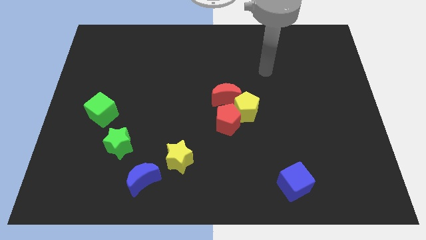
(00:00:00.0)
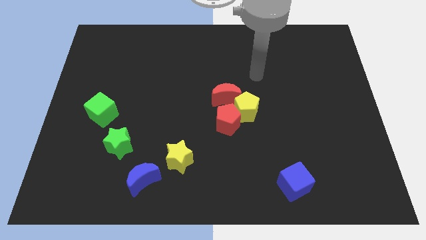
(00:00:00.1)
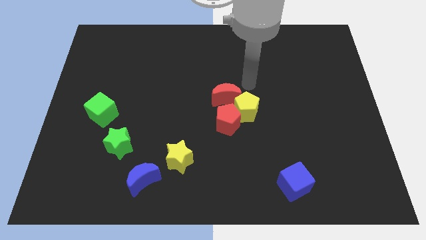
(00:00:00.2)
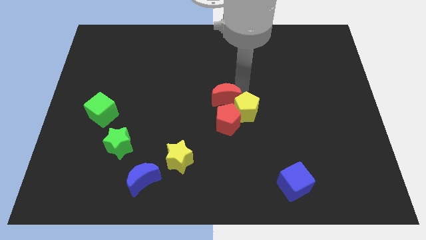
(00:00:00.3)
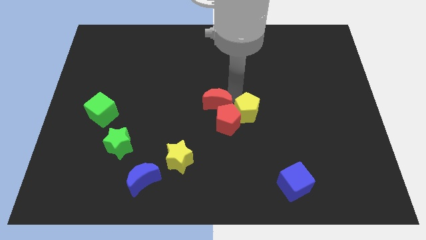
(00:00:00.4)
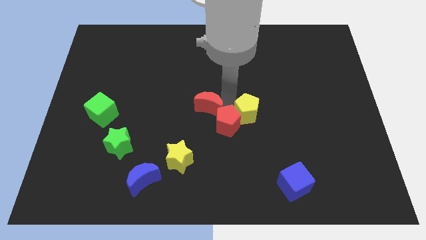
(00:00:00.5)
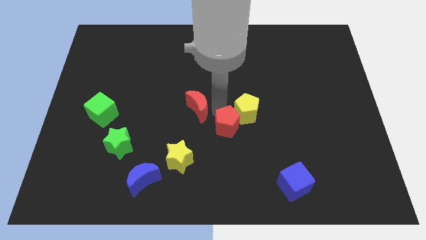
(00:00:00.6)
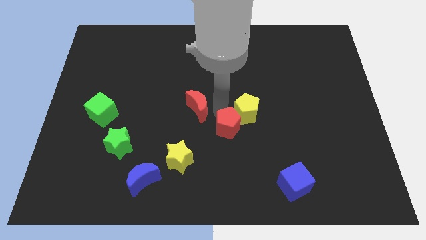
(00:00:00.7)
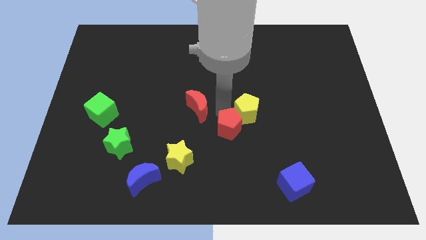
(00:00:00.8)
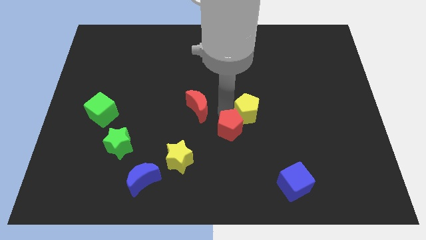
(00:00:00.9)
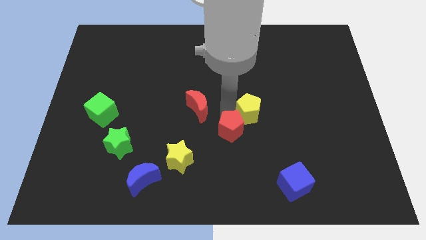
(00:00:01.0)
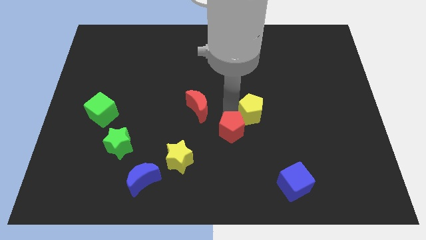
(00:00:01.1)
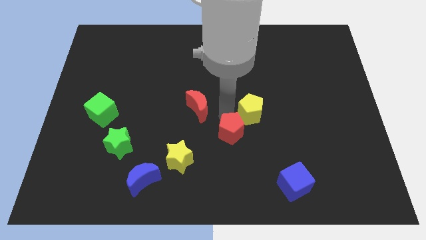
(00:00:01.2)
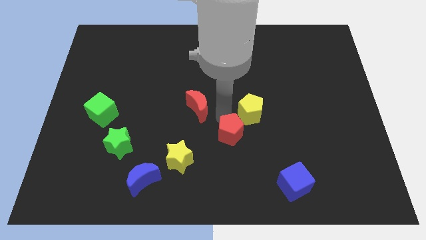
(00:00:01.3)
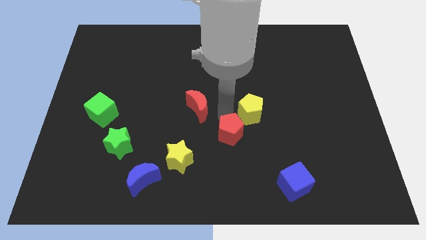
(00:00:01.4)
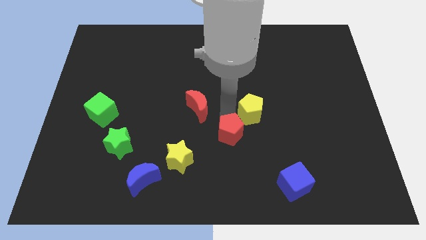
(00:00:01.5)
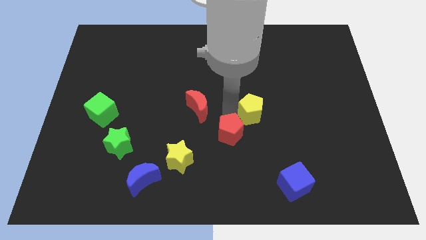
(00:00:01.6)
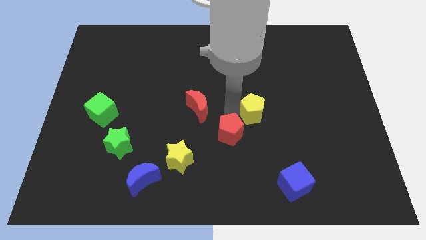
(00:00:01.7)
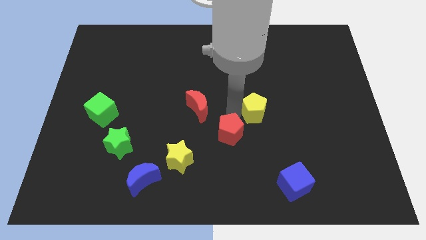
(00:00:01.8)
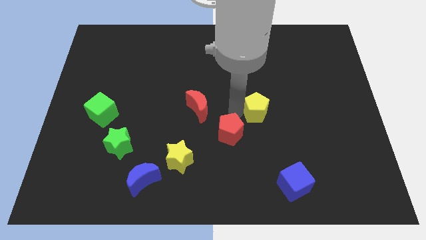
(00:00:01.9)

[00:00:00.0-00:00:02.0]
pull the yellow pentagon apart from the red pentagon and red moon

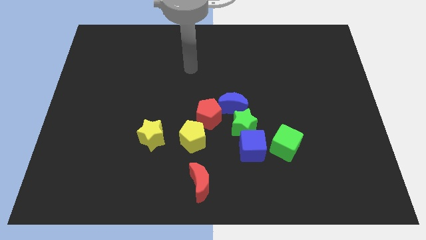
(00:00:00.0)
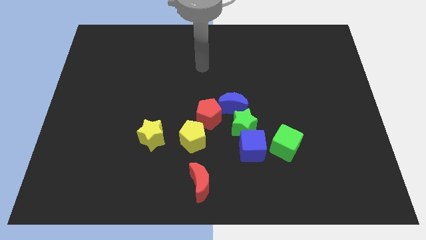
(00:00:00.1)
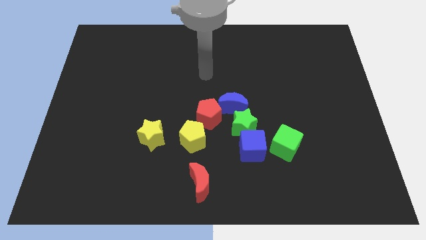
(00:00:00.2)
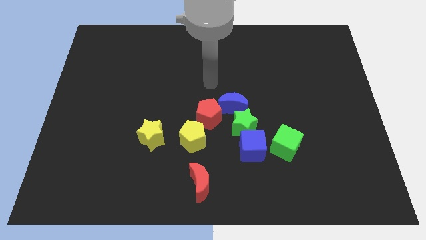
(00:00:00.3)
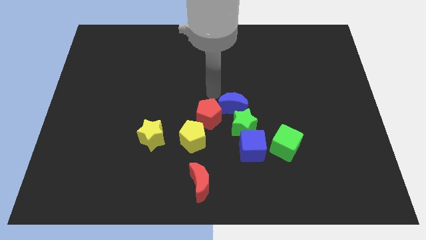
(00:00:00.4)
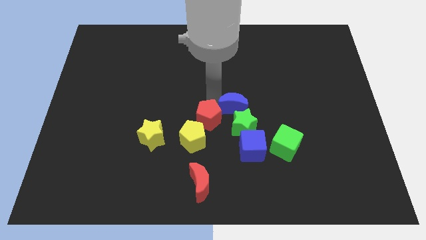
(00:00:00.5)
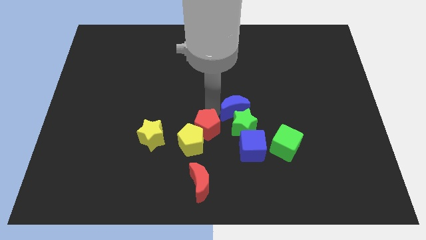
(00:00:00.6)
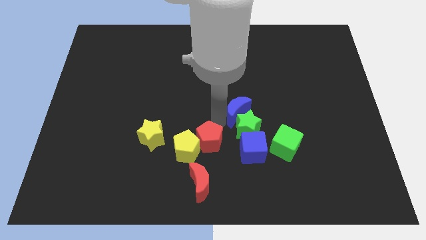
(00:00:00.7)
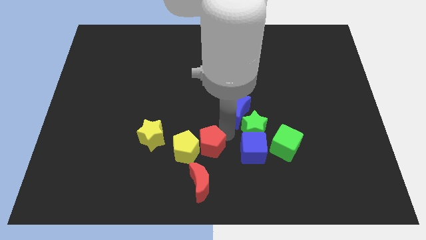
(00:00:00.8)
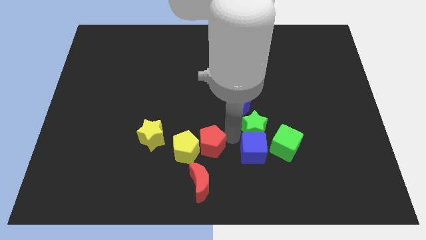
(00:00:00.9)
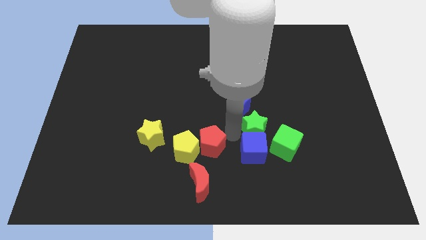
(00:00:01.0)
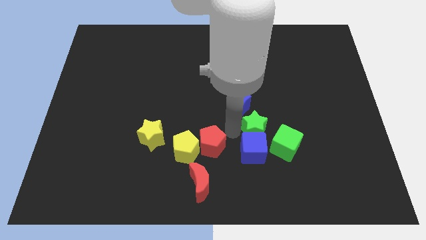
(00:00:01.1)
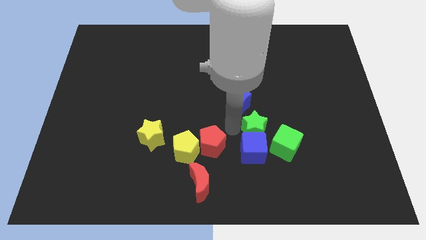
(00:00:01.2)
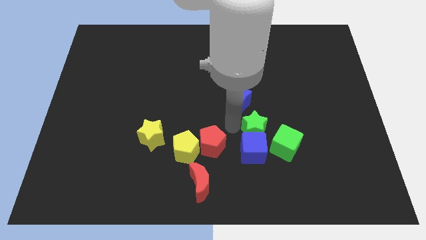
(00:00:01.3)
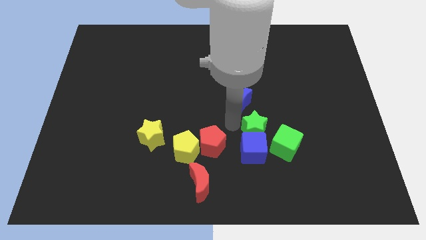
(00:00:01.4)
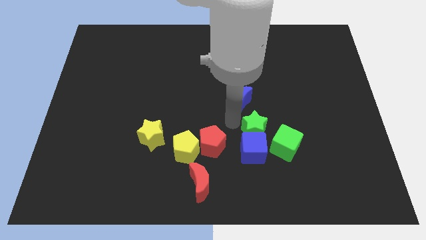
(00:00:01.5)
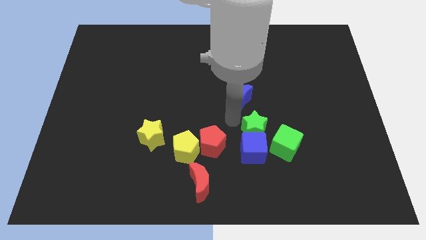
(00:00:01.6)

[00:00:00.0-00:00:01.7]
move the blue moon away from the green star and red pentagon

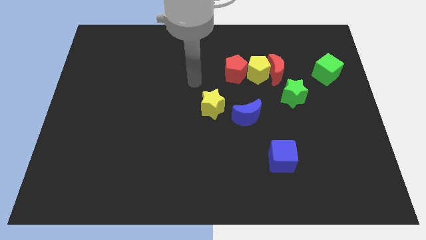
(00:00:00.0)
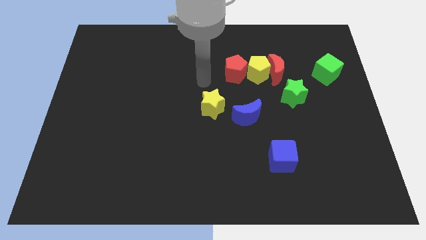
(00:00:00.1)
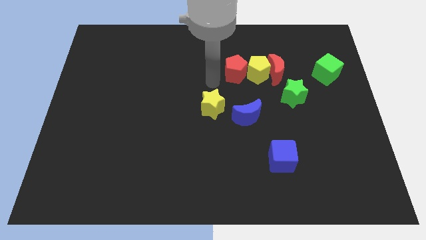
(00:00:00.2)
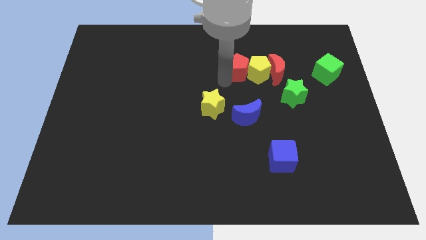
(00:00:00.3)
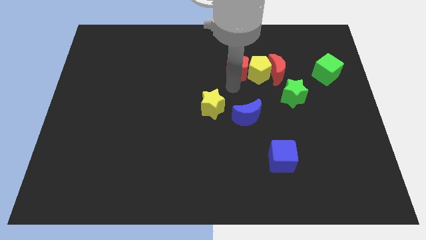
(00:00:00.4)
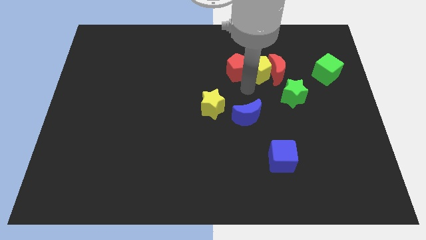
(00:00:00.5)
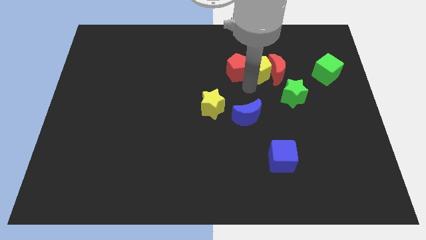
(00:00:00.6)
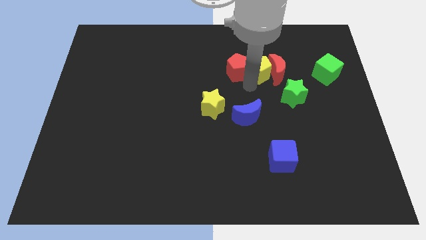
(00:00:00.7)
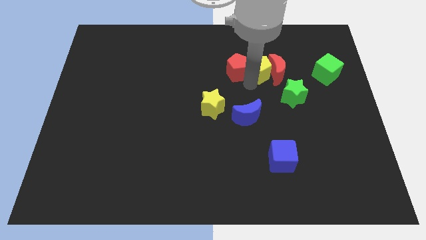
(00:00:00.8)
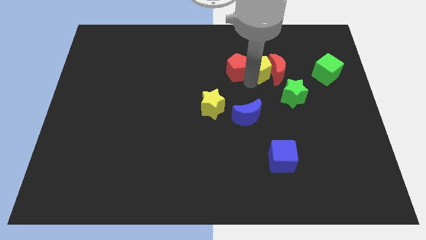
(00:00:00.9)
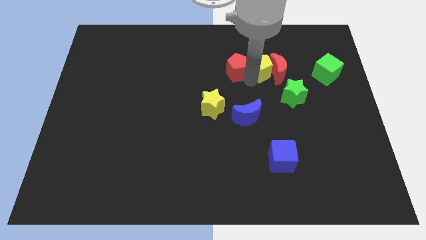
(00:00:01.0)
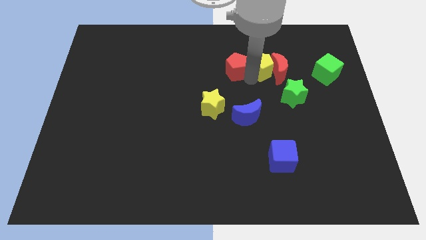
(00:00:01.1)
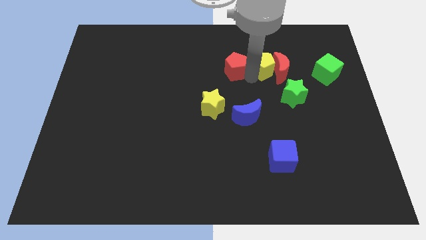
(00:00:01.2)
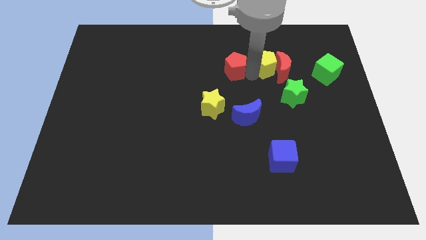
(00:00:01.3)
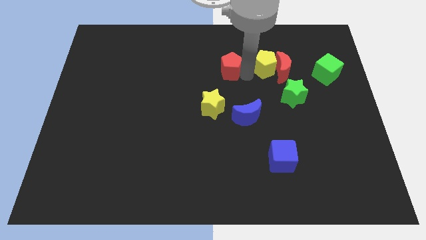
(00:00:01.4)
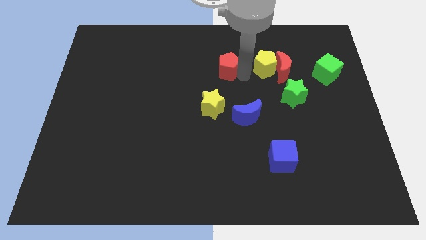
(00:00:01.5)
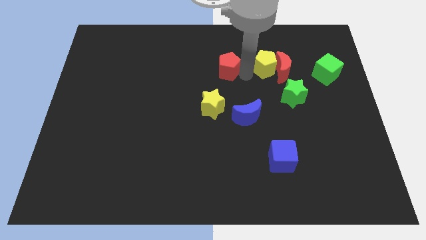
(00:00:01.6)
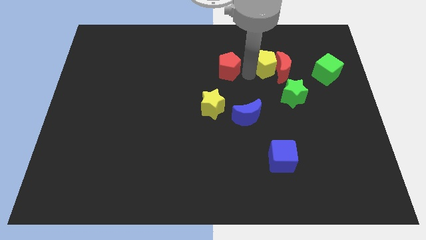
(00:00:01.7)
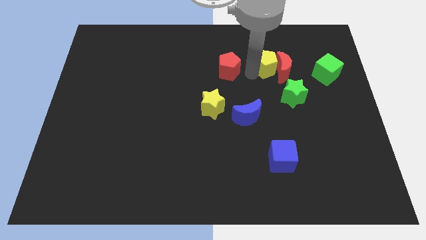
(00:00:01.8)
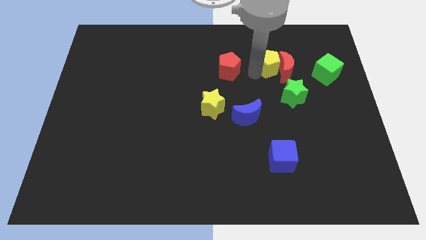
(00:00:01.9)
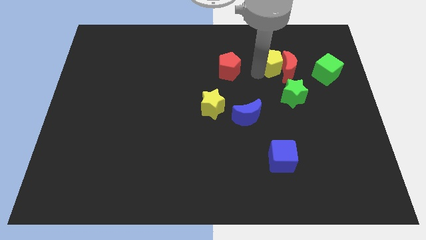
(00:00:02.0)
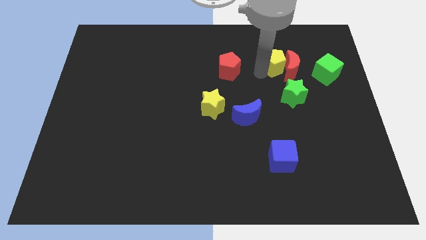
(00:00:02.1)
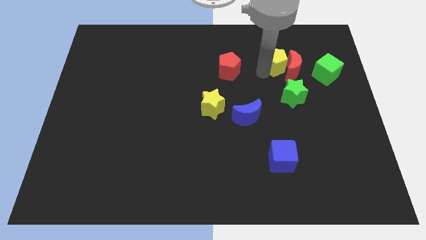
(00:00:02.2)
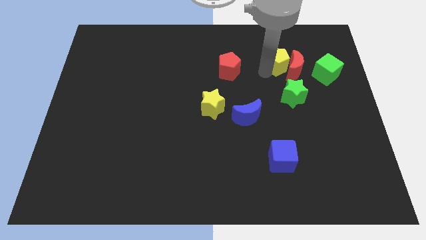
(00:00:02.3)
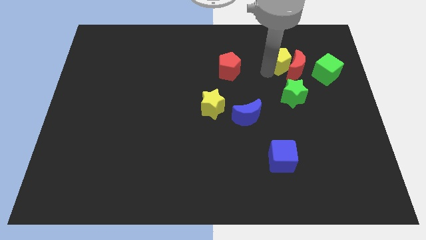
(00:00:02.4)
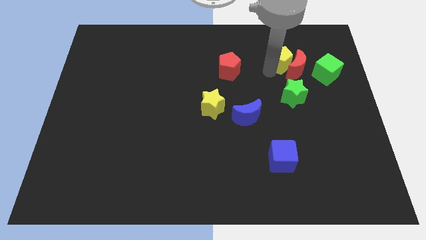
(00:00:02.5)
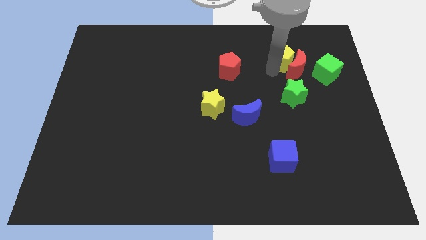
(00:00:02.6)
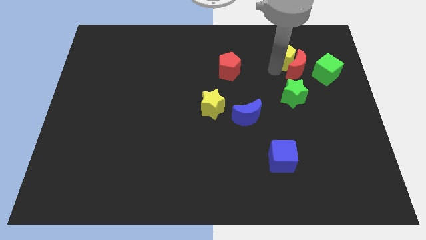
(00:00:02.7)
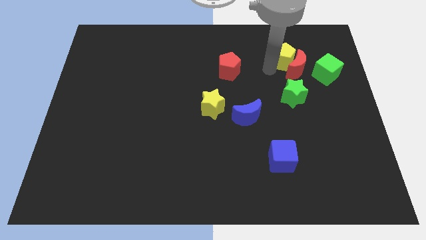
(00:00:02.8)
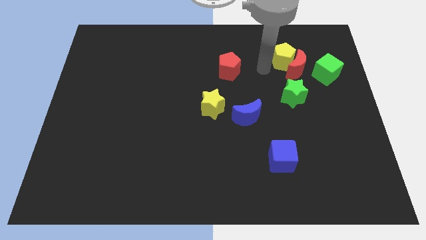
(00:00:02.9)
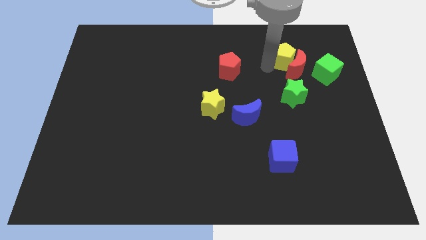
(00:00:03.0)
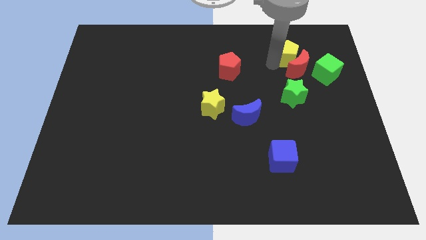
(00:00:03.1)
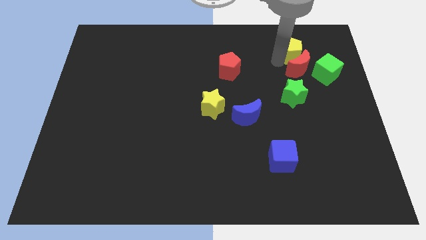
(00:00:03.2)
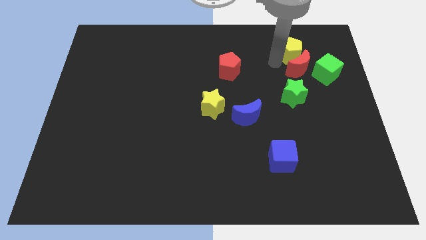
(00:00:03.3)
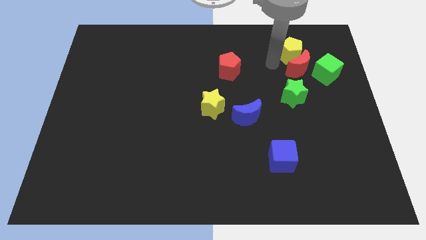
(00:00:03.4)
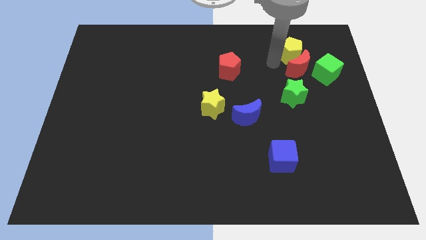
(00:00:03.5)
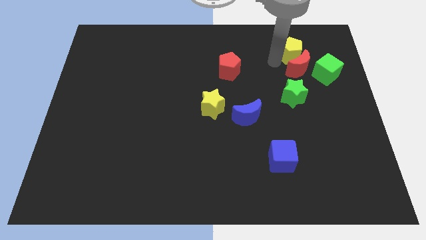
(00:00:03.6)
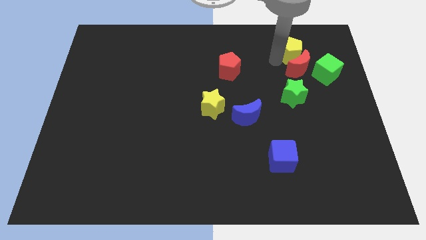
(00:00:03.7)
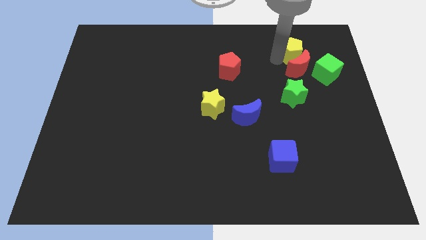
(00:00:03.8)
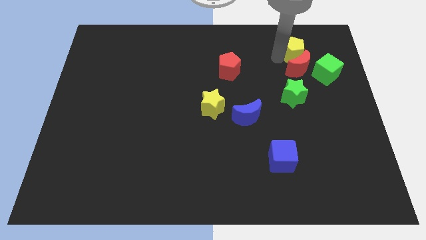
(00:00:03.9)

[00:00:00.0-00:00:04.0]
move the yellow pentagon away from the red moon and red pentagon

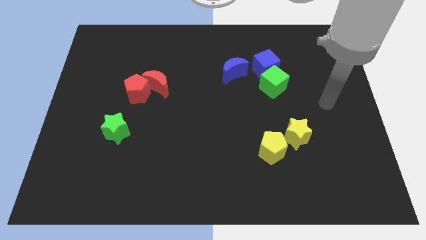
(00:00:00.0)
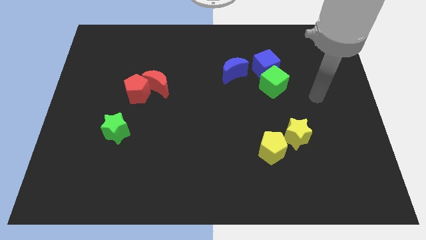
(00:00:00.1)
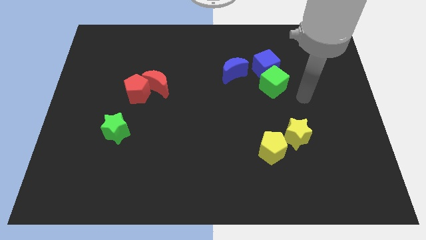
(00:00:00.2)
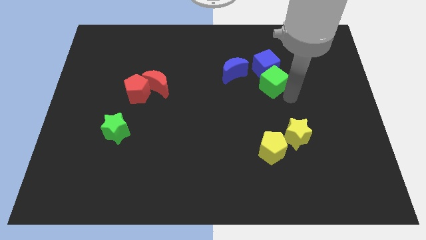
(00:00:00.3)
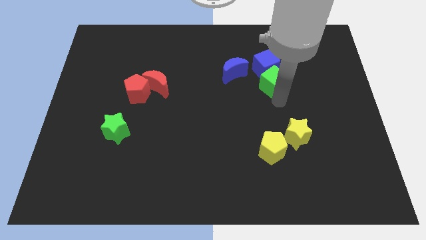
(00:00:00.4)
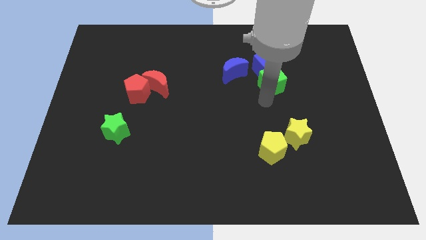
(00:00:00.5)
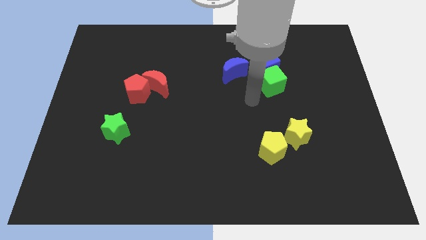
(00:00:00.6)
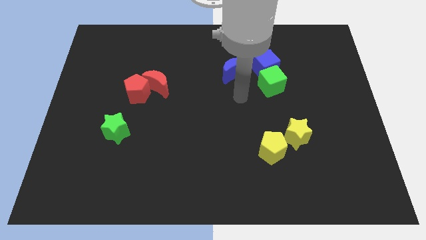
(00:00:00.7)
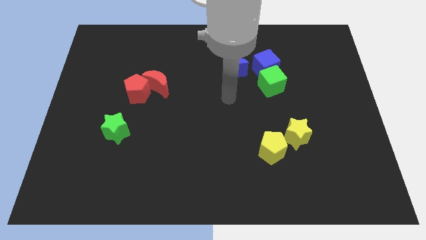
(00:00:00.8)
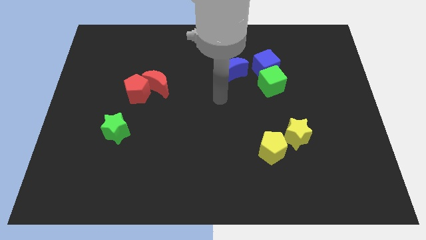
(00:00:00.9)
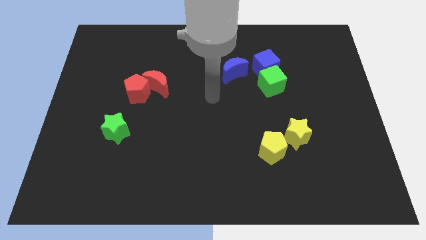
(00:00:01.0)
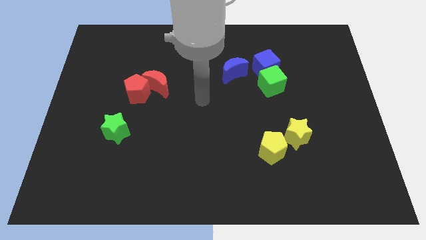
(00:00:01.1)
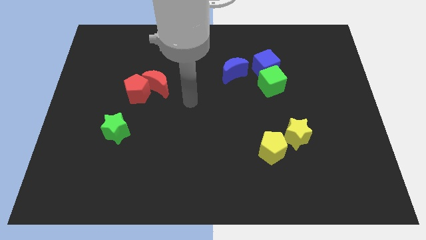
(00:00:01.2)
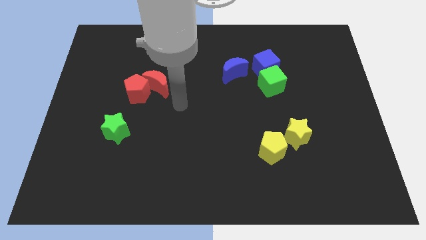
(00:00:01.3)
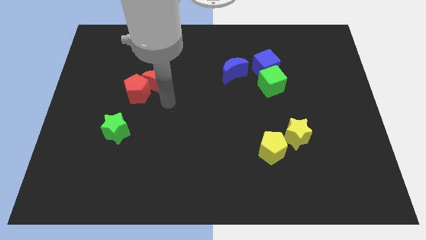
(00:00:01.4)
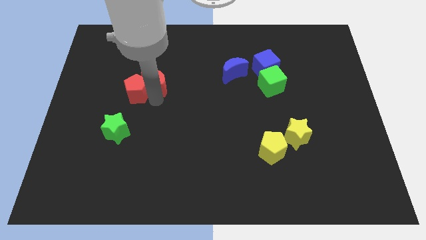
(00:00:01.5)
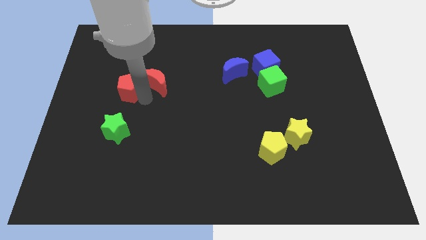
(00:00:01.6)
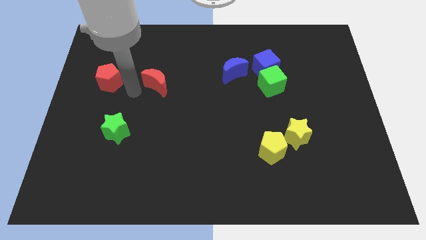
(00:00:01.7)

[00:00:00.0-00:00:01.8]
pull the red moon apart from the red pentagon
